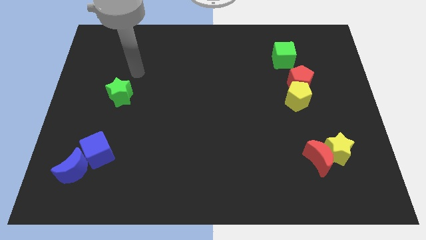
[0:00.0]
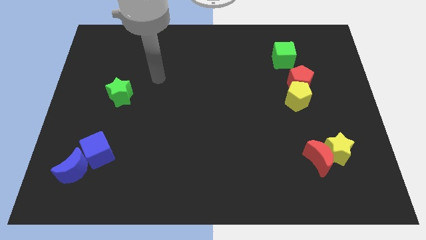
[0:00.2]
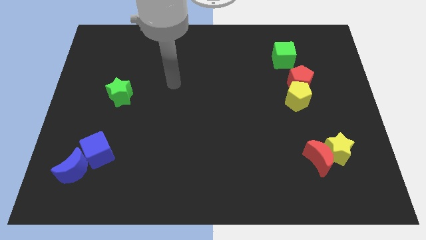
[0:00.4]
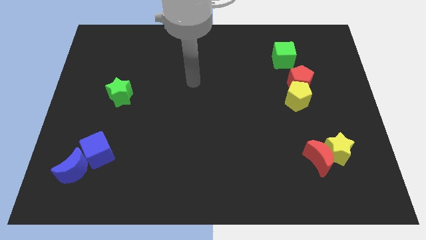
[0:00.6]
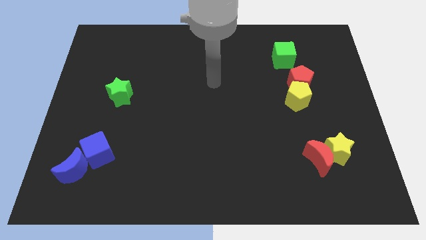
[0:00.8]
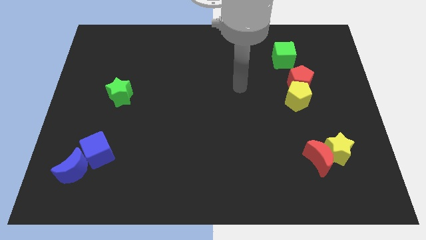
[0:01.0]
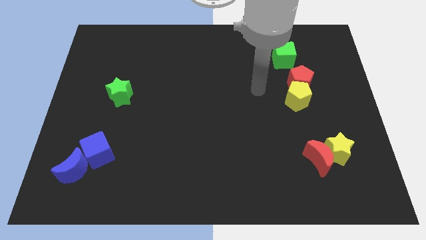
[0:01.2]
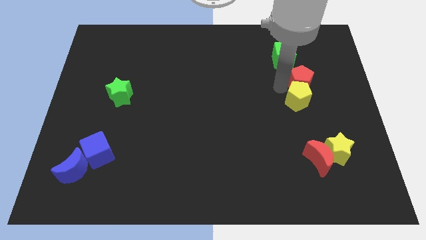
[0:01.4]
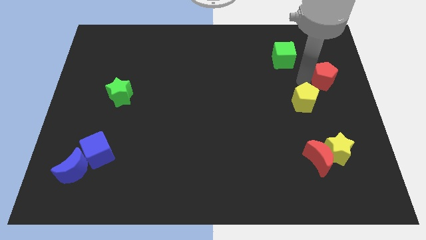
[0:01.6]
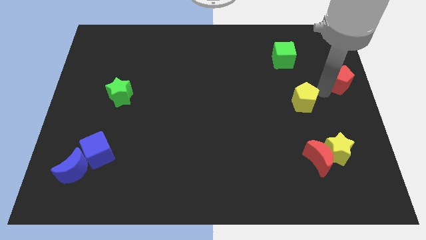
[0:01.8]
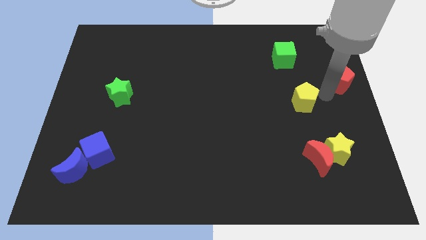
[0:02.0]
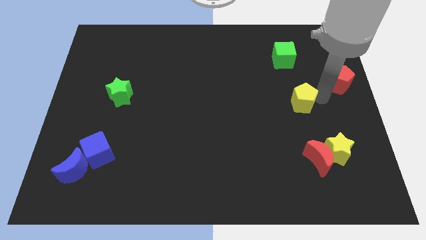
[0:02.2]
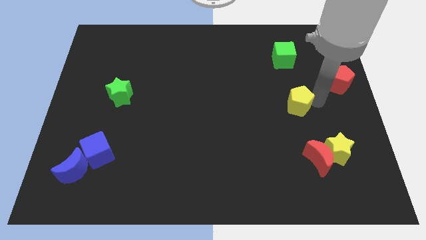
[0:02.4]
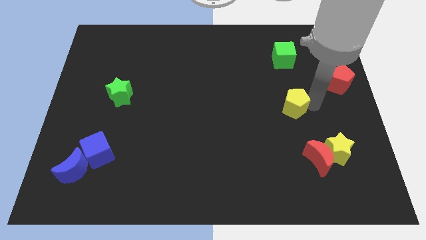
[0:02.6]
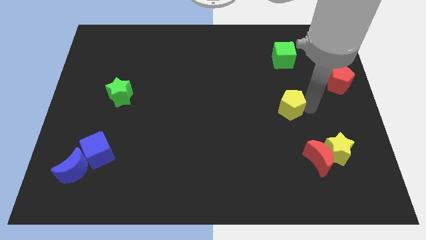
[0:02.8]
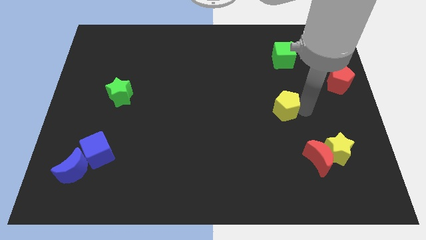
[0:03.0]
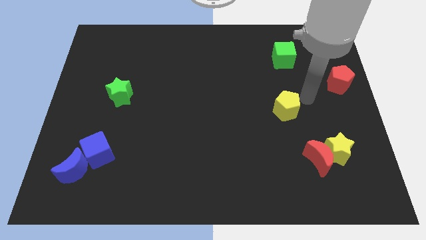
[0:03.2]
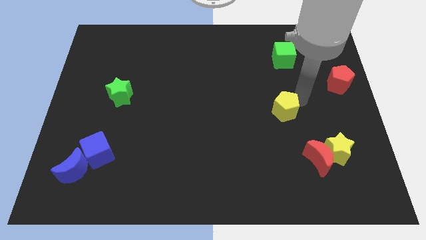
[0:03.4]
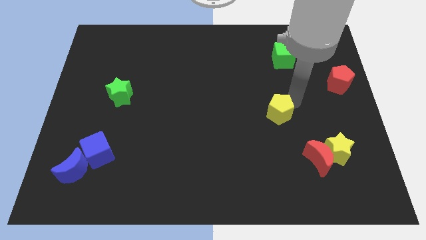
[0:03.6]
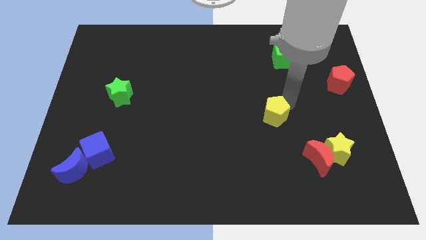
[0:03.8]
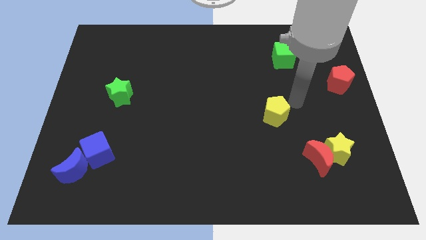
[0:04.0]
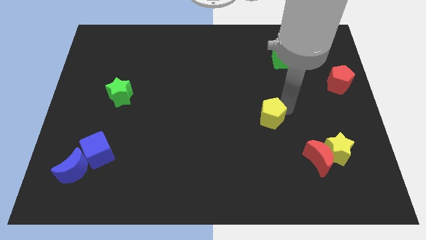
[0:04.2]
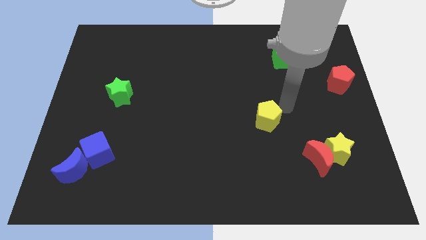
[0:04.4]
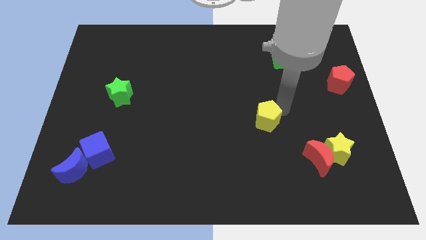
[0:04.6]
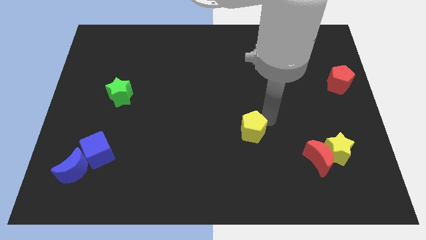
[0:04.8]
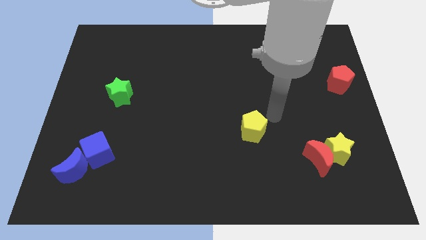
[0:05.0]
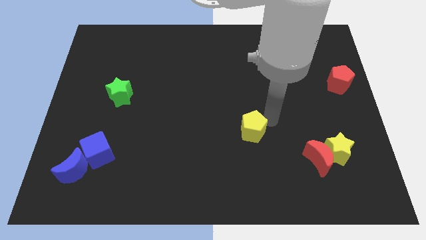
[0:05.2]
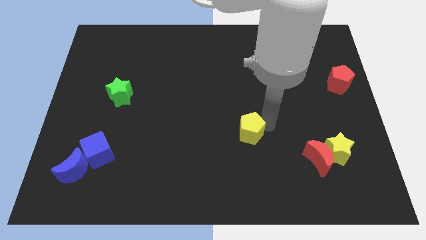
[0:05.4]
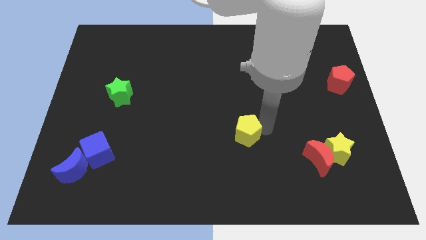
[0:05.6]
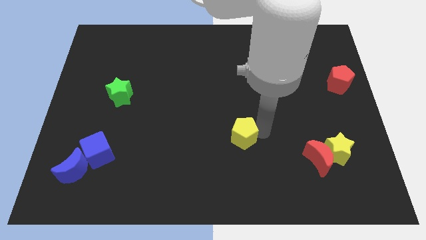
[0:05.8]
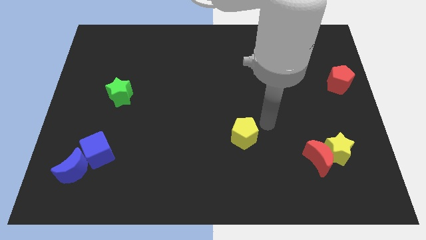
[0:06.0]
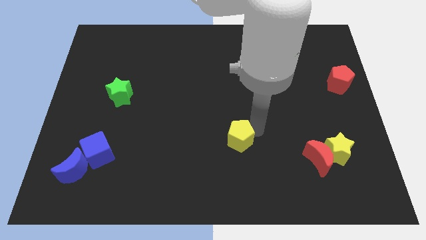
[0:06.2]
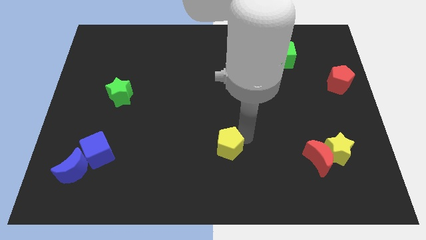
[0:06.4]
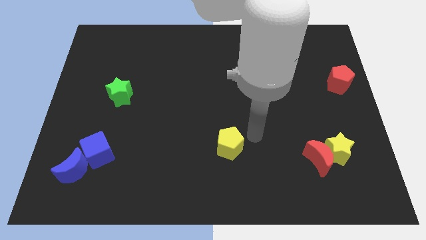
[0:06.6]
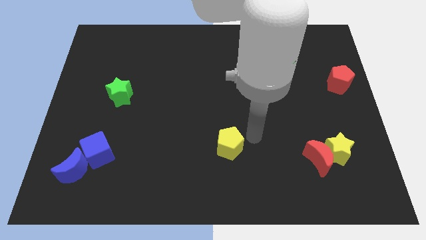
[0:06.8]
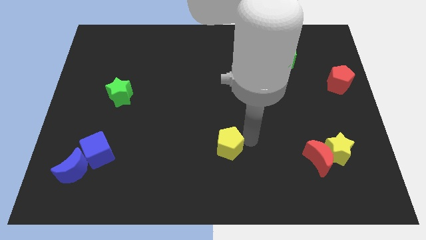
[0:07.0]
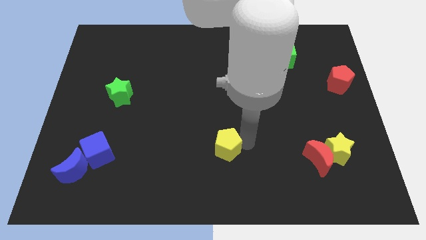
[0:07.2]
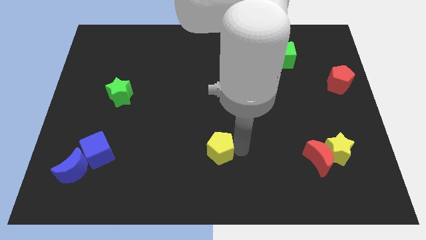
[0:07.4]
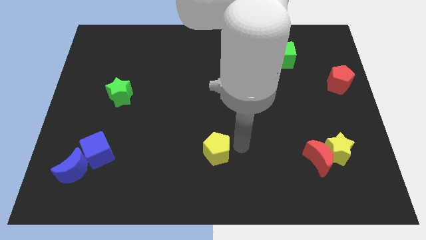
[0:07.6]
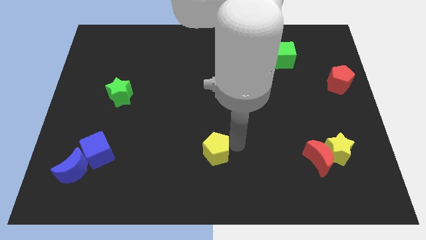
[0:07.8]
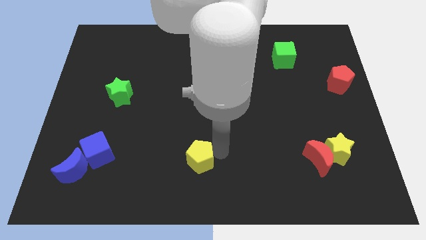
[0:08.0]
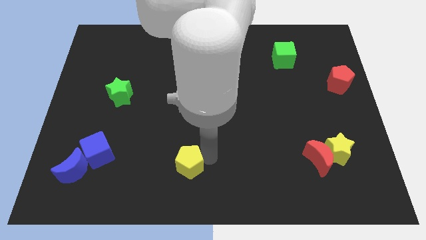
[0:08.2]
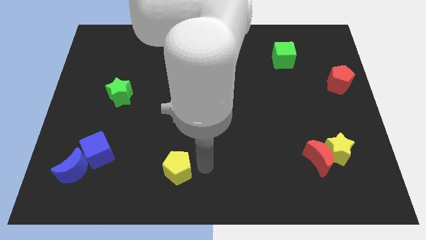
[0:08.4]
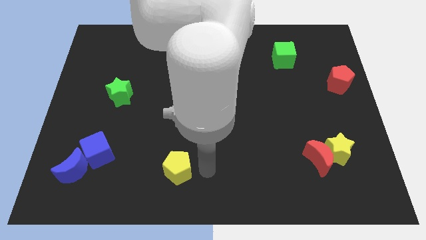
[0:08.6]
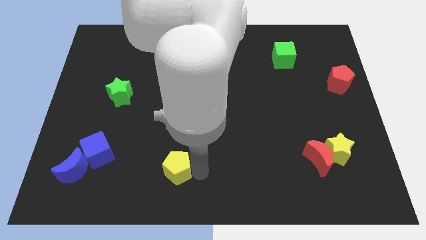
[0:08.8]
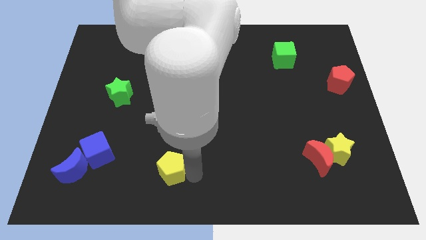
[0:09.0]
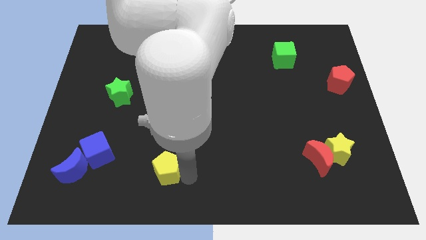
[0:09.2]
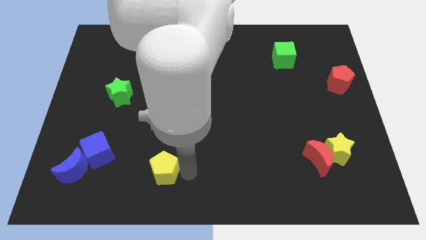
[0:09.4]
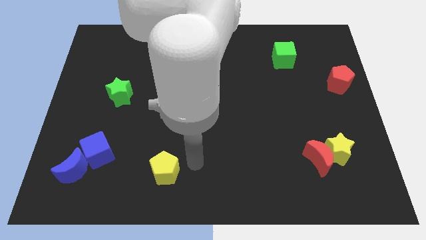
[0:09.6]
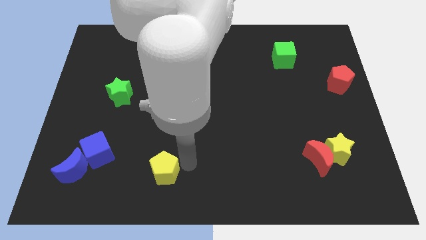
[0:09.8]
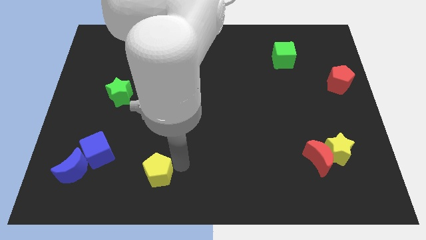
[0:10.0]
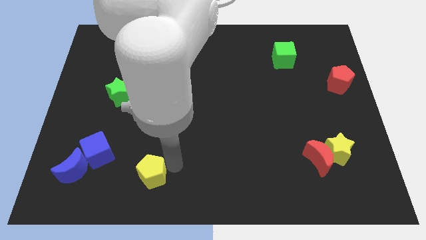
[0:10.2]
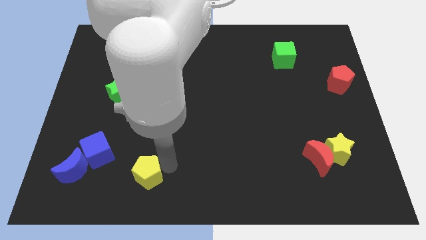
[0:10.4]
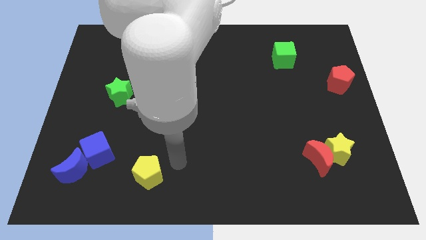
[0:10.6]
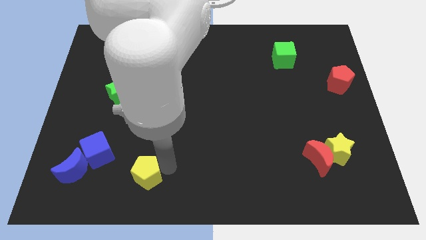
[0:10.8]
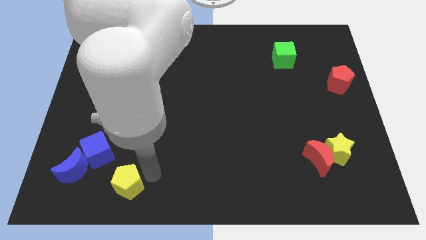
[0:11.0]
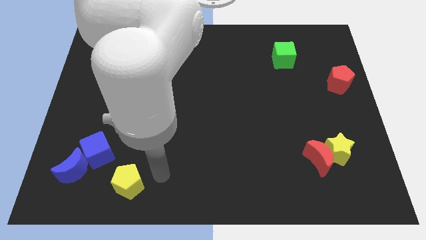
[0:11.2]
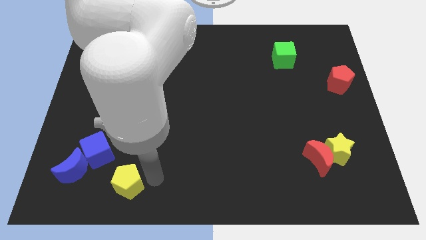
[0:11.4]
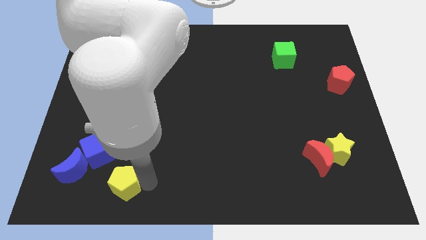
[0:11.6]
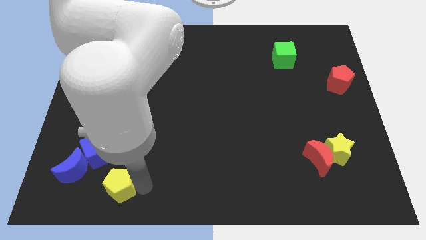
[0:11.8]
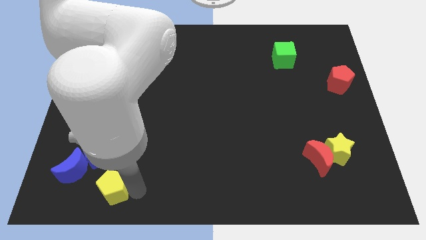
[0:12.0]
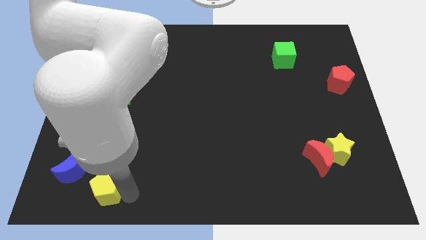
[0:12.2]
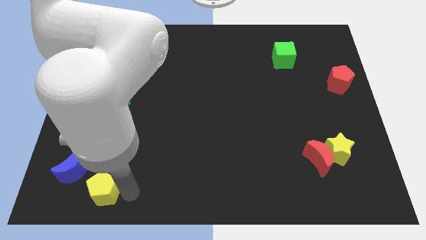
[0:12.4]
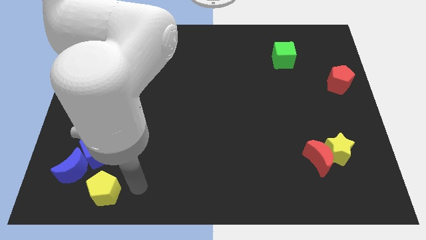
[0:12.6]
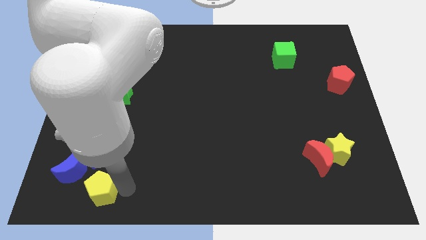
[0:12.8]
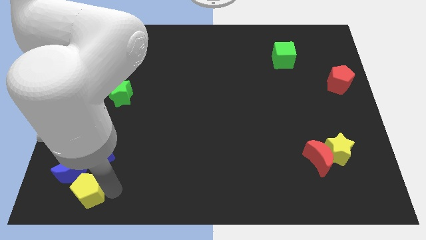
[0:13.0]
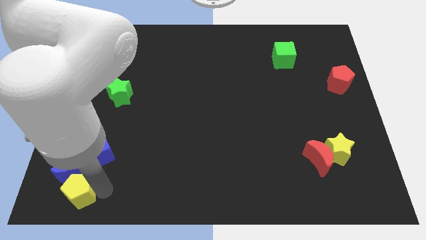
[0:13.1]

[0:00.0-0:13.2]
push the yellow pentagon to the lower left corner
